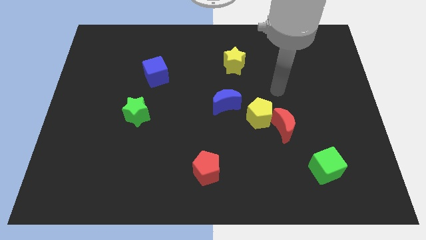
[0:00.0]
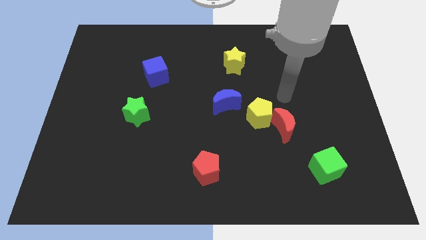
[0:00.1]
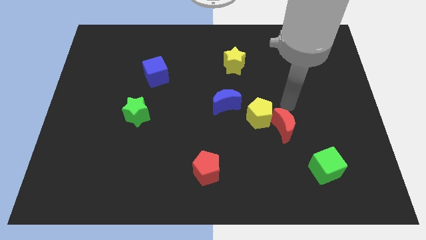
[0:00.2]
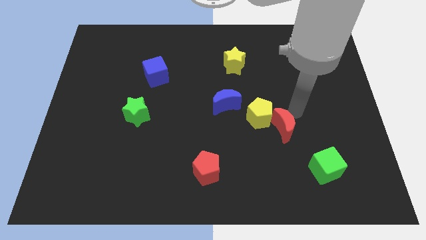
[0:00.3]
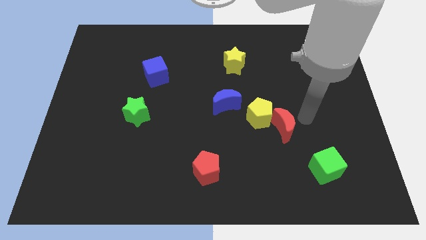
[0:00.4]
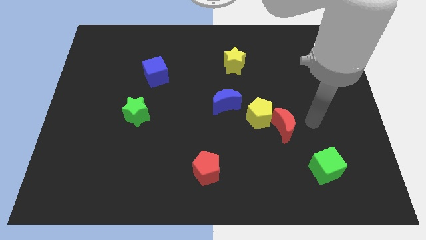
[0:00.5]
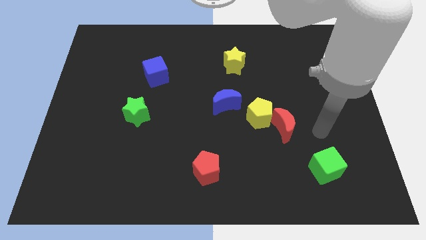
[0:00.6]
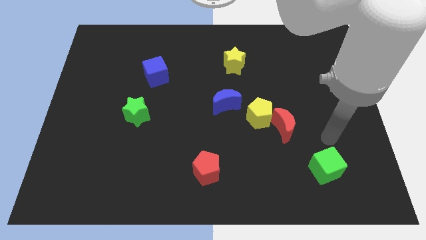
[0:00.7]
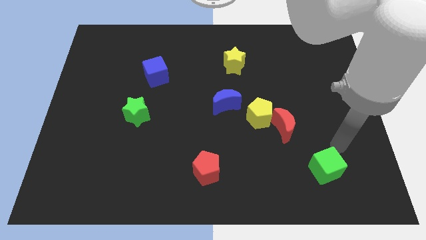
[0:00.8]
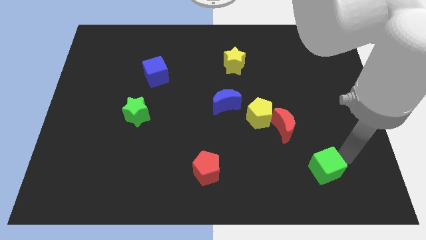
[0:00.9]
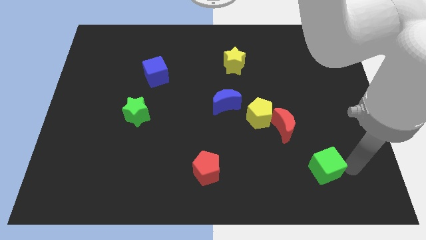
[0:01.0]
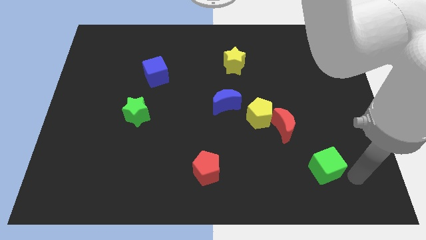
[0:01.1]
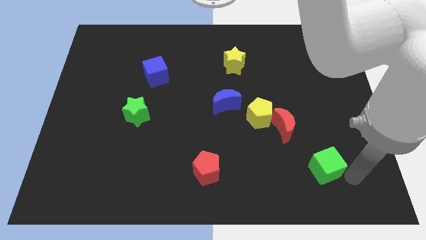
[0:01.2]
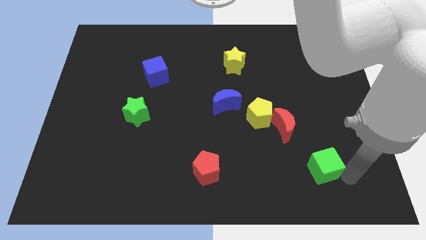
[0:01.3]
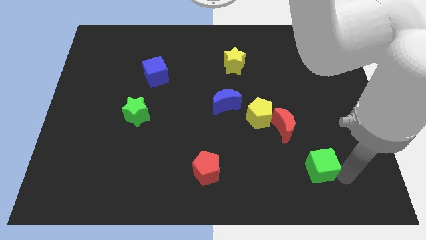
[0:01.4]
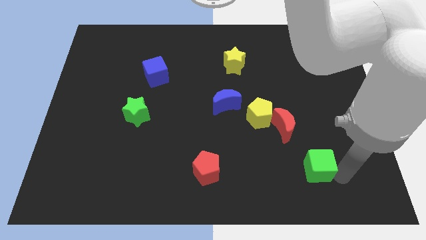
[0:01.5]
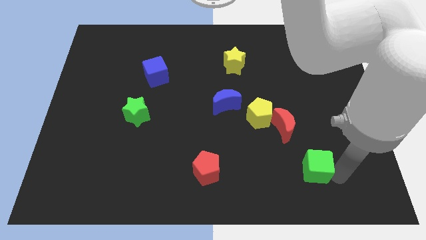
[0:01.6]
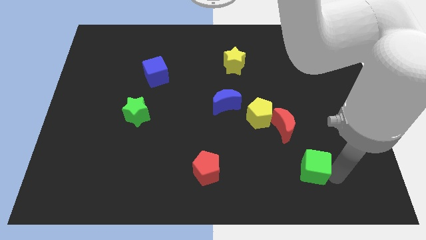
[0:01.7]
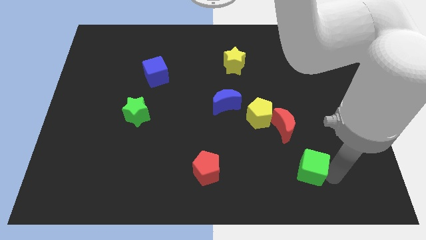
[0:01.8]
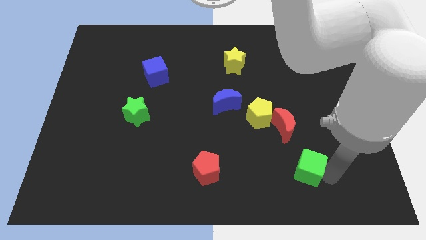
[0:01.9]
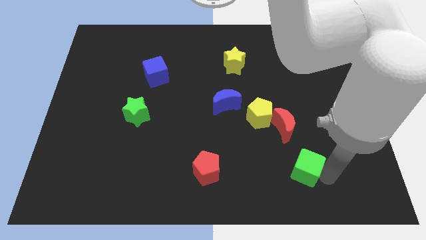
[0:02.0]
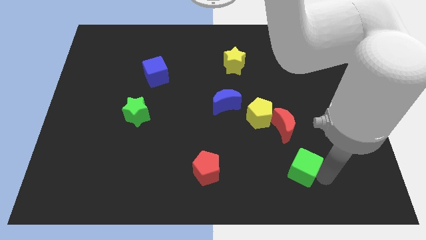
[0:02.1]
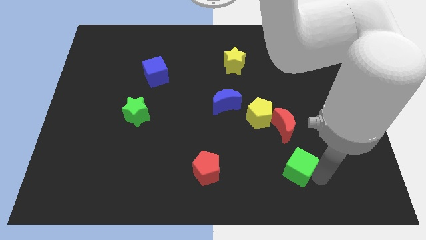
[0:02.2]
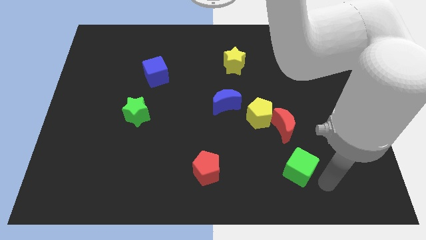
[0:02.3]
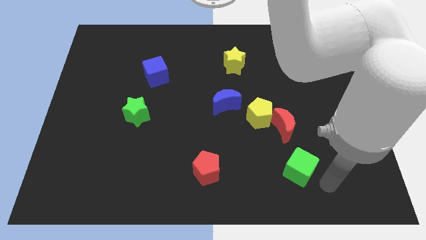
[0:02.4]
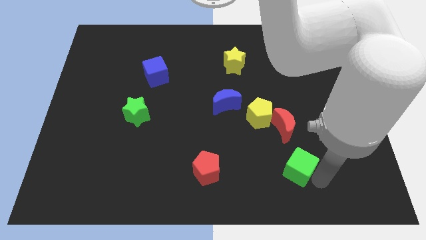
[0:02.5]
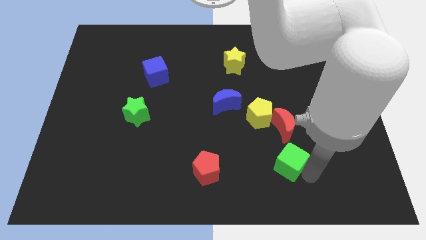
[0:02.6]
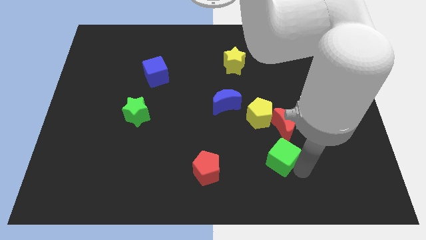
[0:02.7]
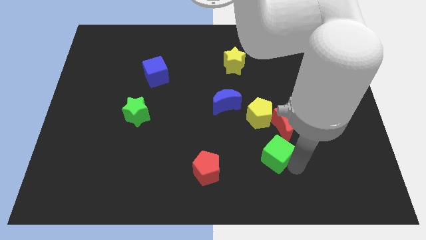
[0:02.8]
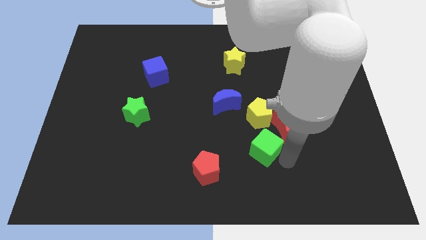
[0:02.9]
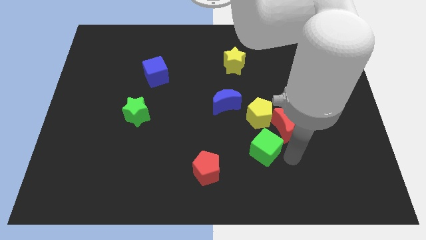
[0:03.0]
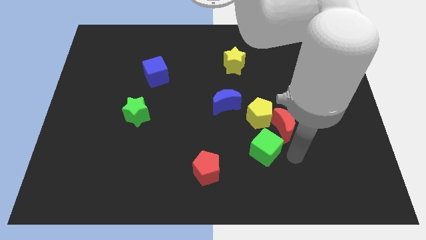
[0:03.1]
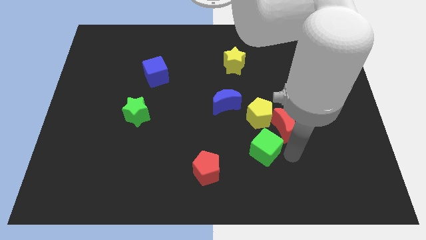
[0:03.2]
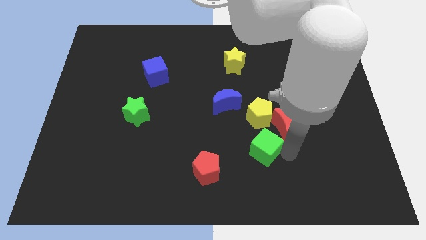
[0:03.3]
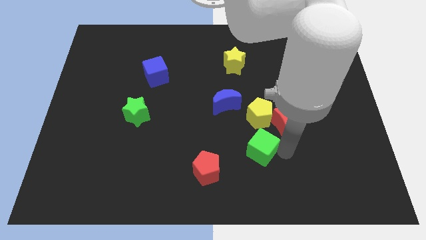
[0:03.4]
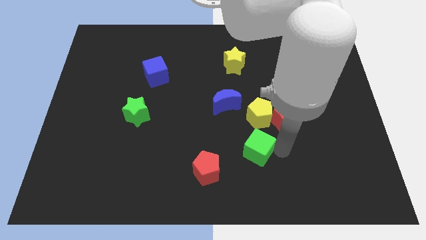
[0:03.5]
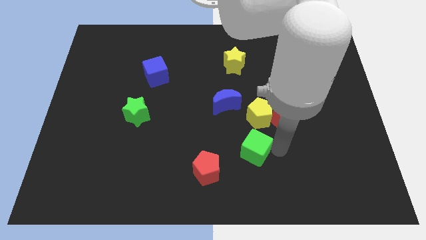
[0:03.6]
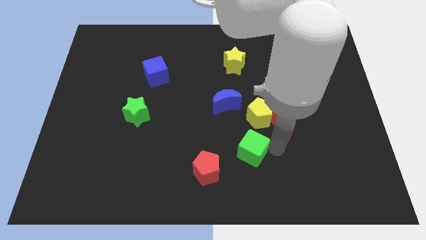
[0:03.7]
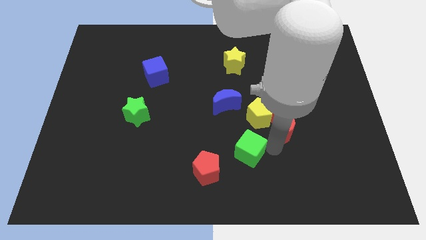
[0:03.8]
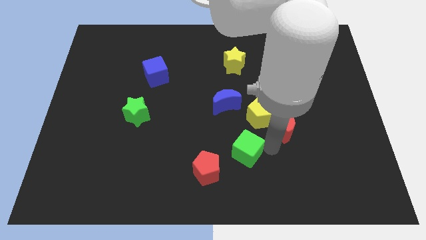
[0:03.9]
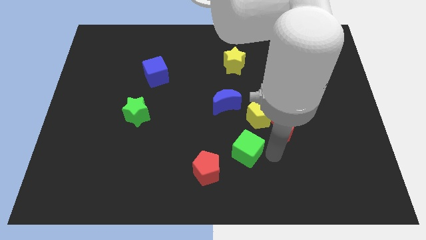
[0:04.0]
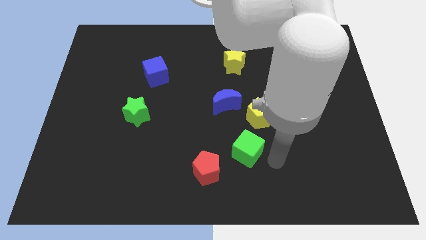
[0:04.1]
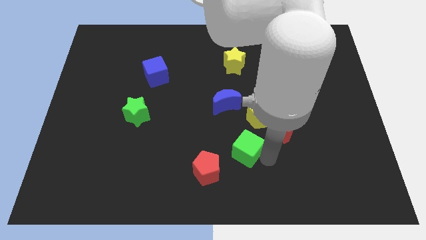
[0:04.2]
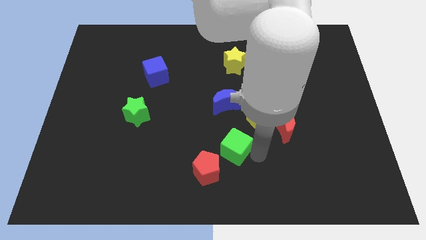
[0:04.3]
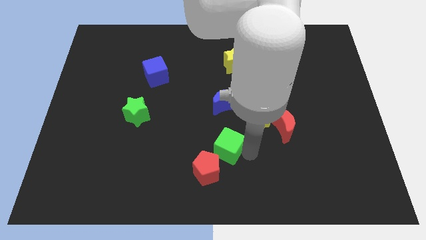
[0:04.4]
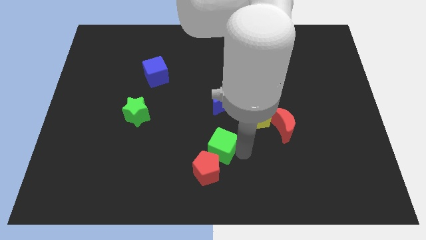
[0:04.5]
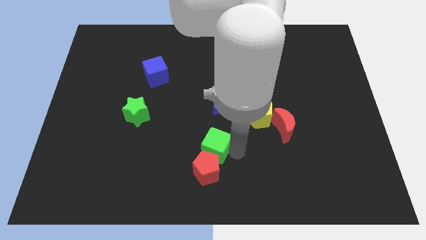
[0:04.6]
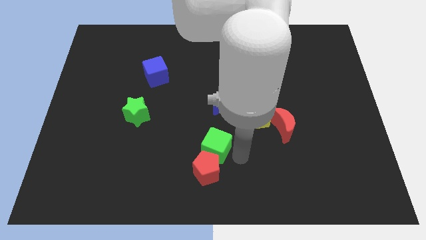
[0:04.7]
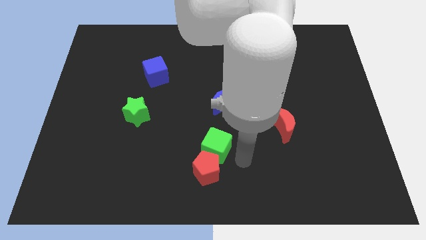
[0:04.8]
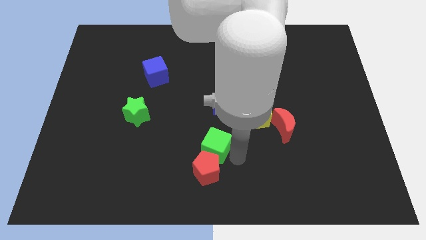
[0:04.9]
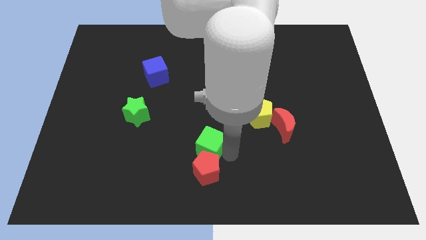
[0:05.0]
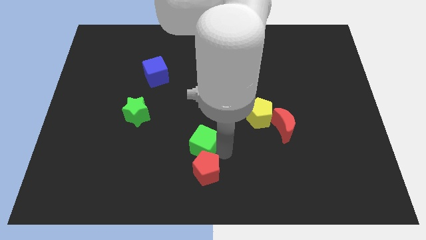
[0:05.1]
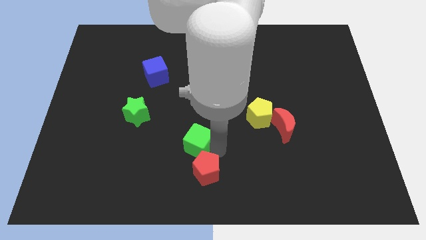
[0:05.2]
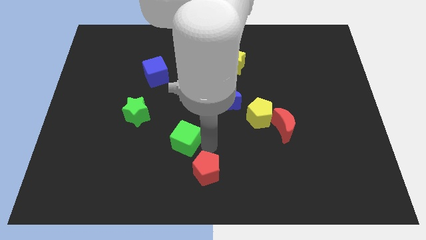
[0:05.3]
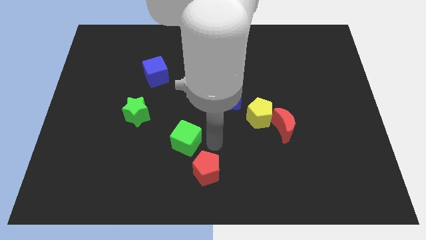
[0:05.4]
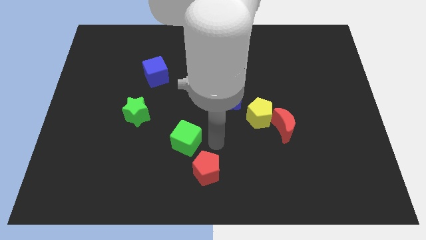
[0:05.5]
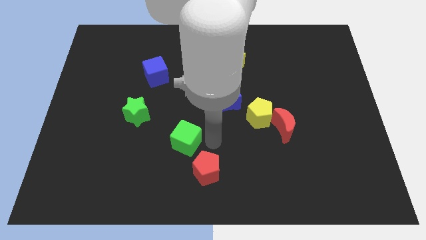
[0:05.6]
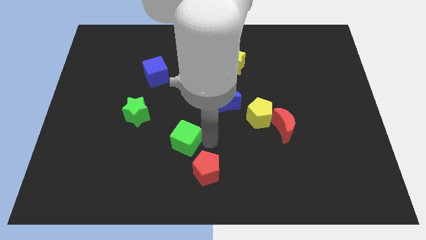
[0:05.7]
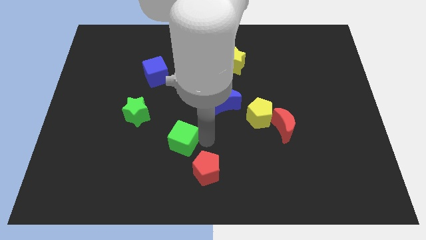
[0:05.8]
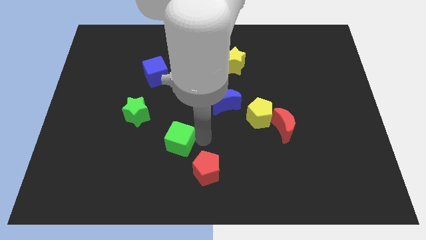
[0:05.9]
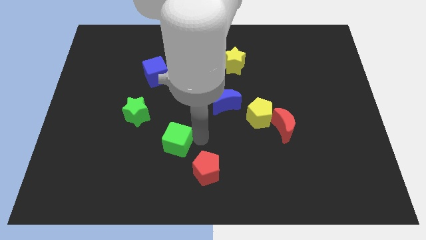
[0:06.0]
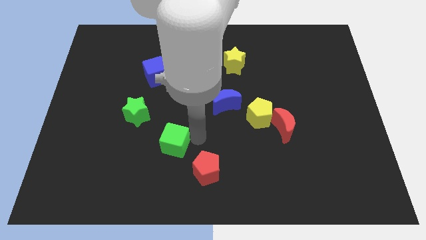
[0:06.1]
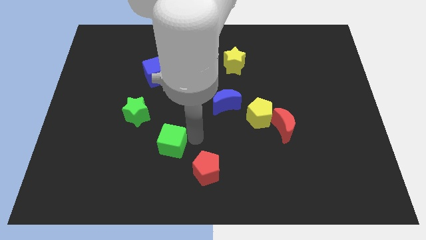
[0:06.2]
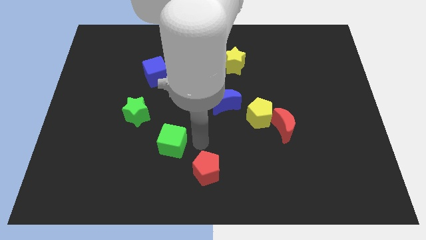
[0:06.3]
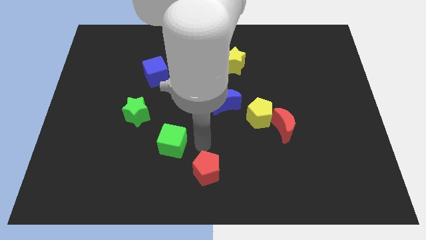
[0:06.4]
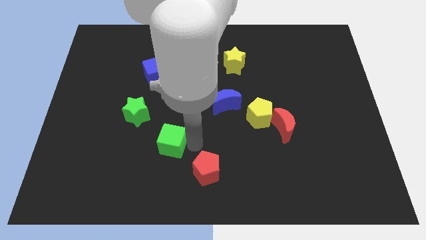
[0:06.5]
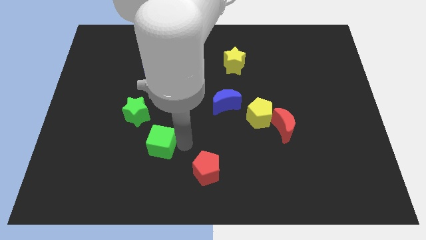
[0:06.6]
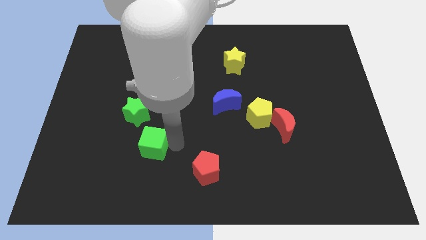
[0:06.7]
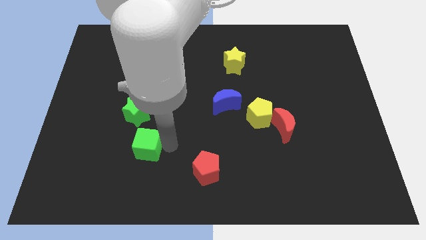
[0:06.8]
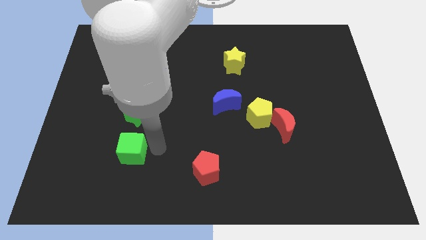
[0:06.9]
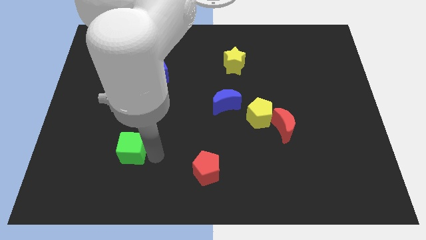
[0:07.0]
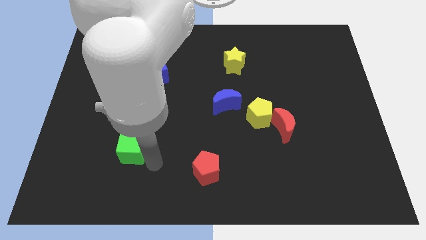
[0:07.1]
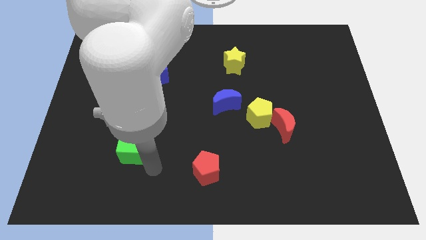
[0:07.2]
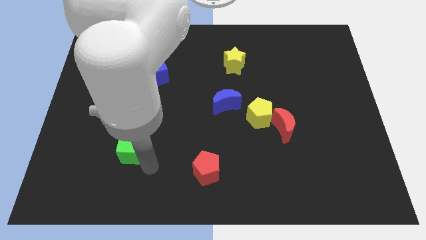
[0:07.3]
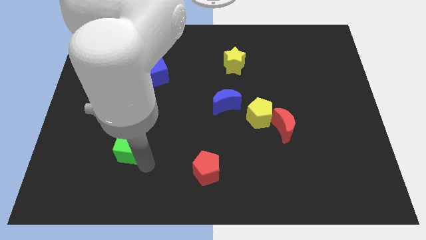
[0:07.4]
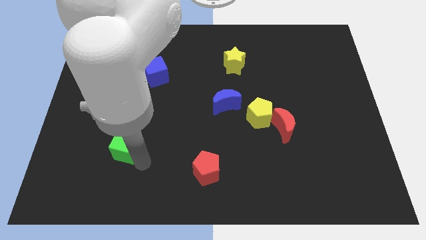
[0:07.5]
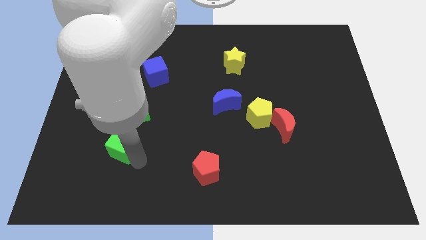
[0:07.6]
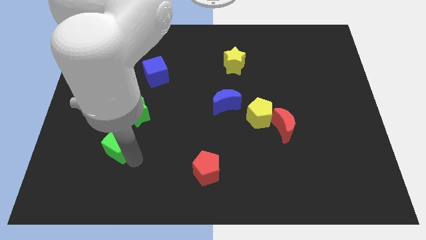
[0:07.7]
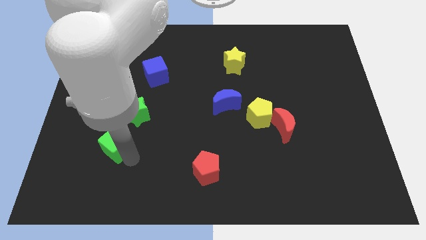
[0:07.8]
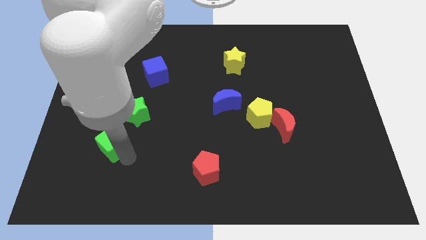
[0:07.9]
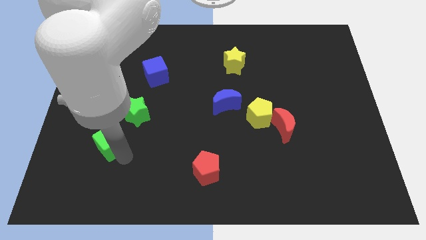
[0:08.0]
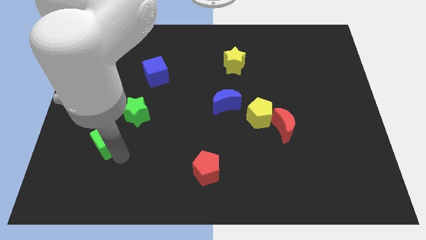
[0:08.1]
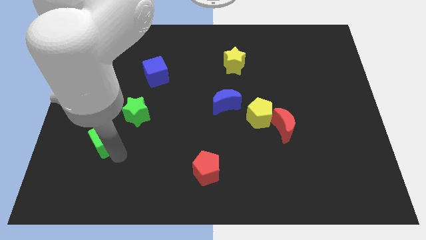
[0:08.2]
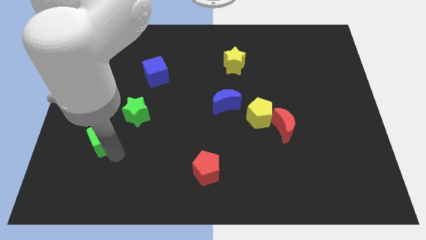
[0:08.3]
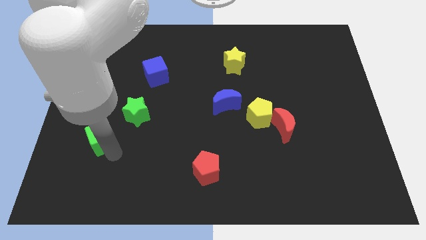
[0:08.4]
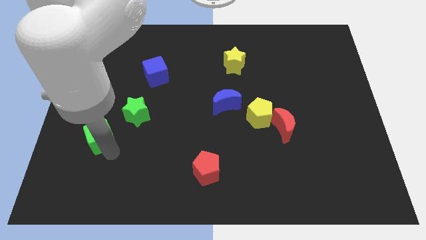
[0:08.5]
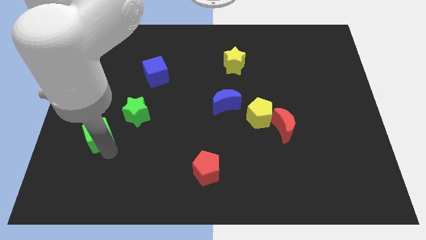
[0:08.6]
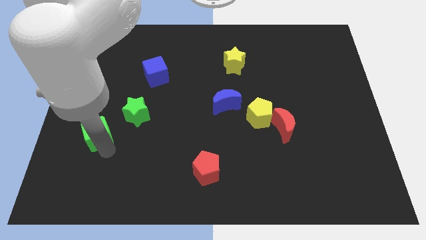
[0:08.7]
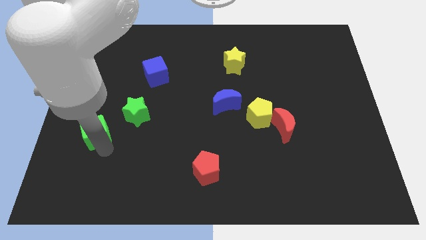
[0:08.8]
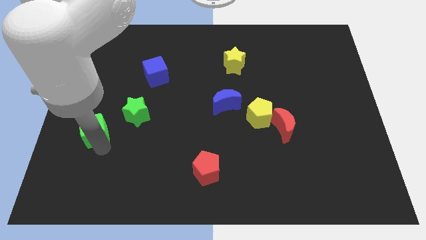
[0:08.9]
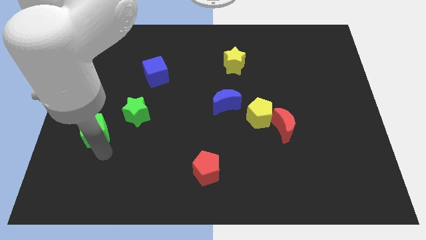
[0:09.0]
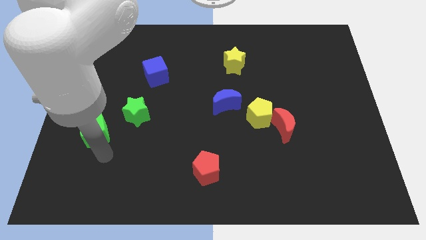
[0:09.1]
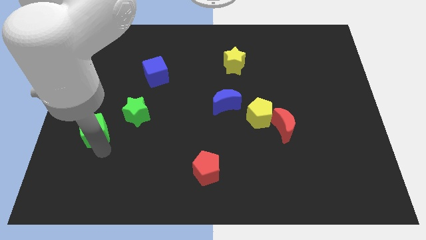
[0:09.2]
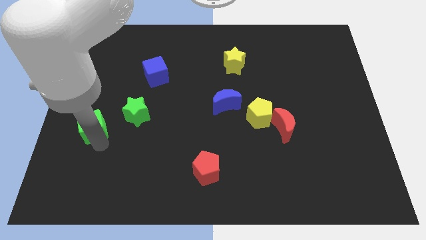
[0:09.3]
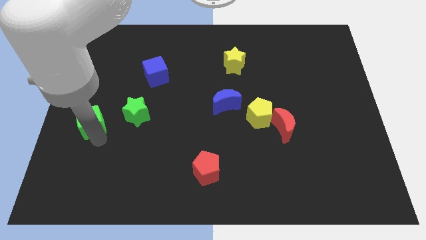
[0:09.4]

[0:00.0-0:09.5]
push the green cube to the center left
